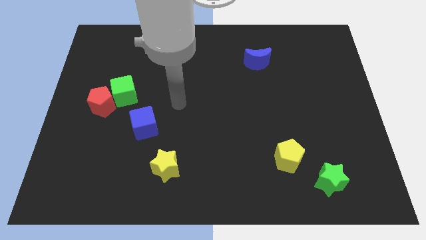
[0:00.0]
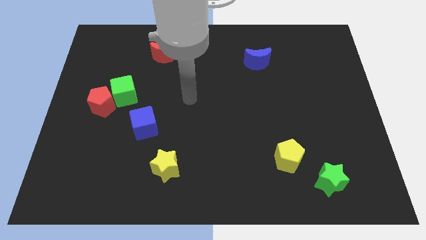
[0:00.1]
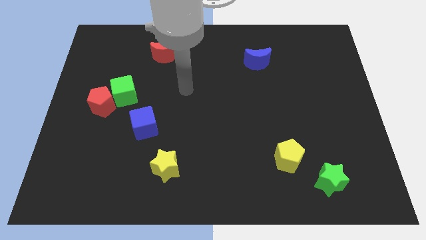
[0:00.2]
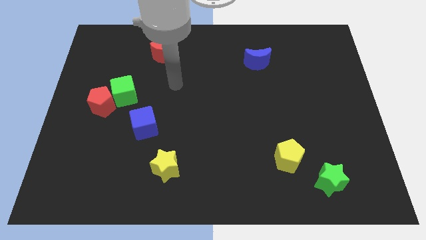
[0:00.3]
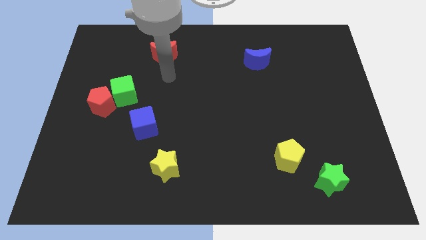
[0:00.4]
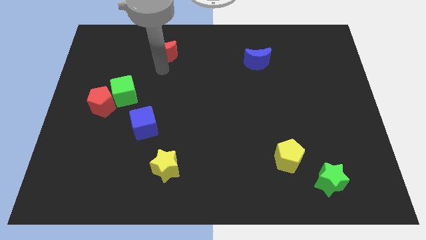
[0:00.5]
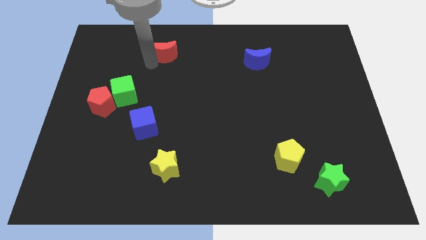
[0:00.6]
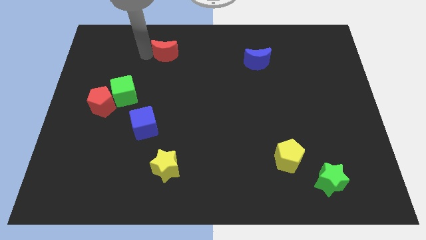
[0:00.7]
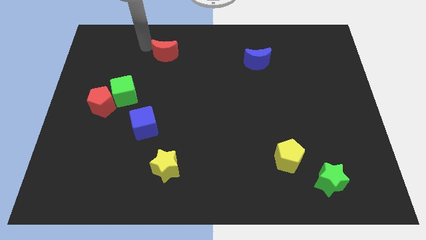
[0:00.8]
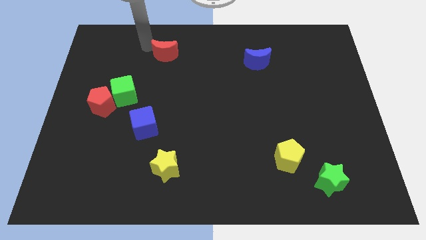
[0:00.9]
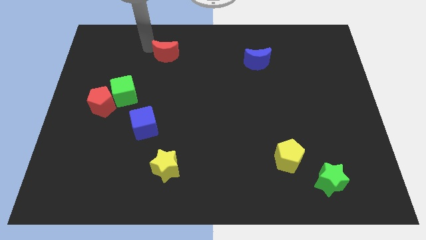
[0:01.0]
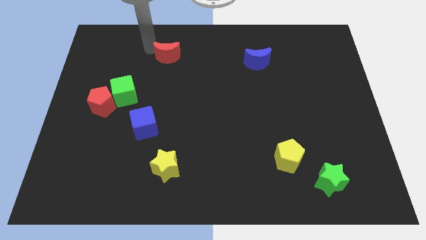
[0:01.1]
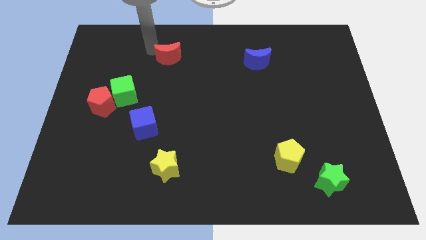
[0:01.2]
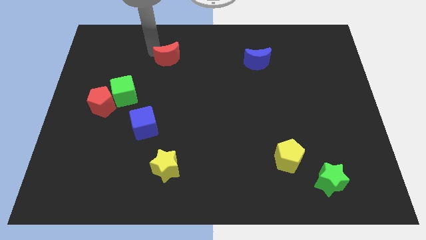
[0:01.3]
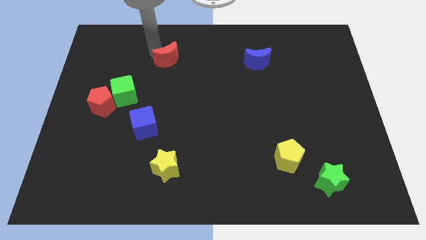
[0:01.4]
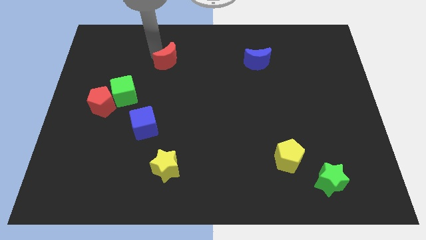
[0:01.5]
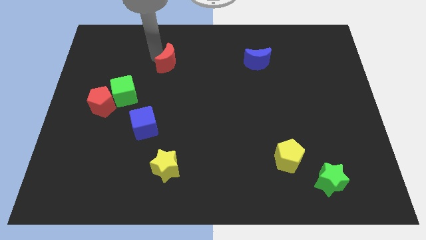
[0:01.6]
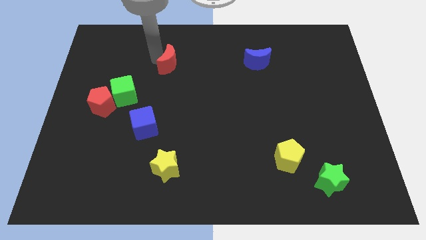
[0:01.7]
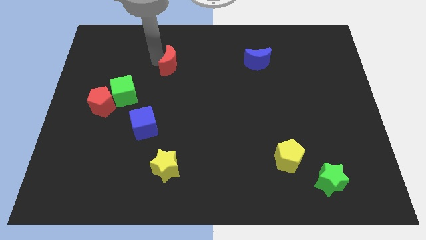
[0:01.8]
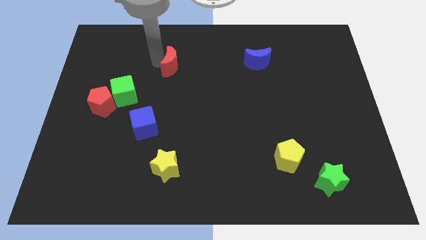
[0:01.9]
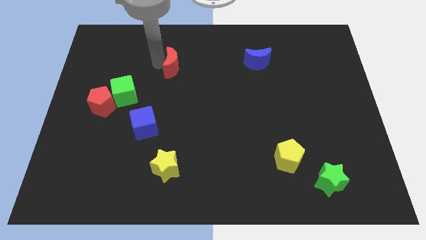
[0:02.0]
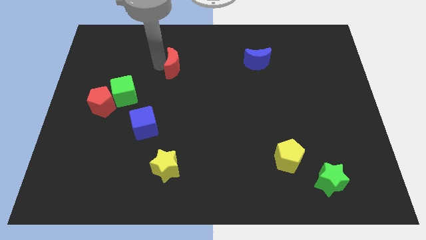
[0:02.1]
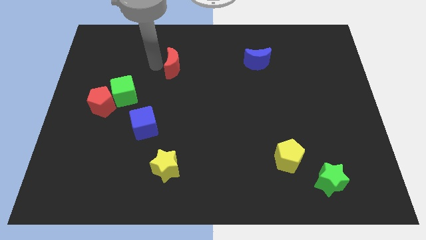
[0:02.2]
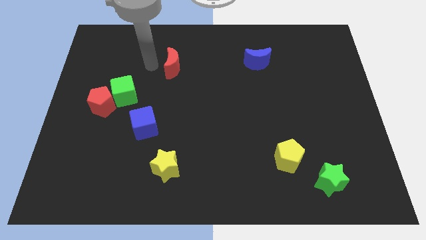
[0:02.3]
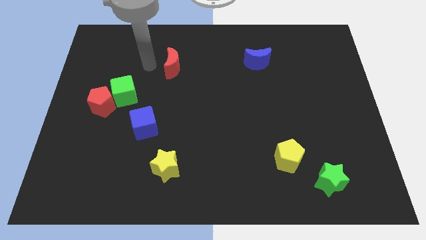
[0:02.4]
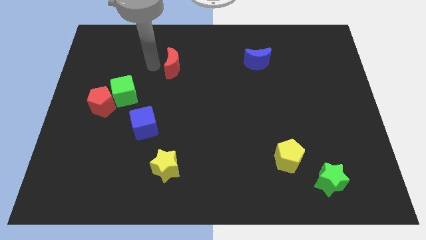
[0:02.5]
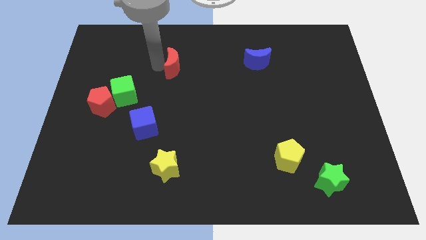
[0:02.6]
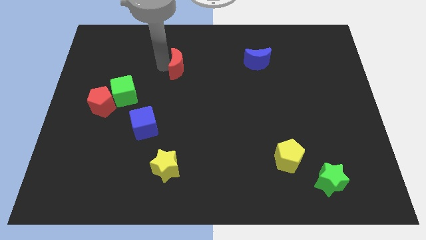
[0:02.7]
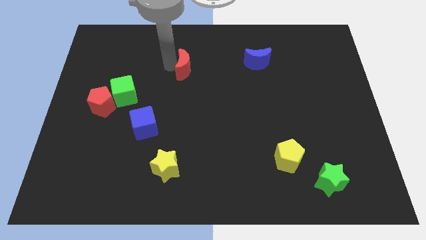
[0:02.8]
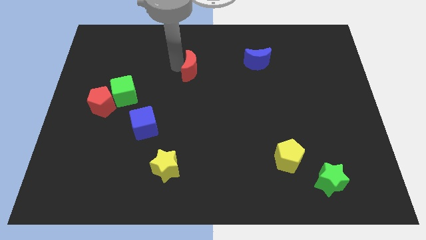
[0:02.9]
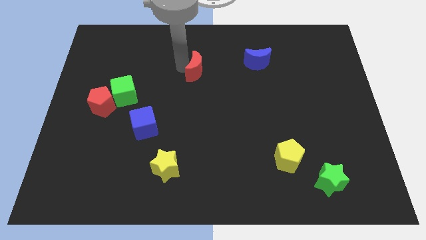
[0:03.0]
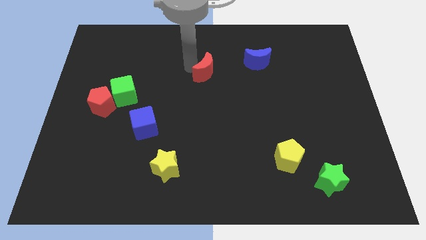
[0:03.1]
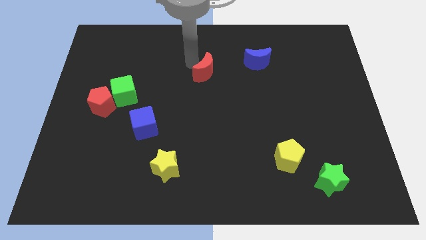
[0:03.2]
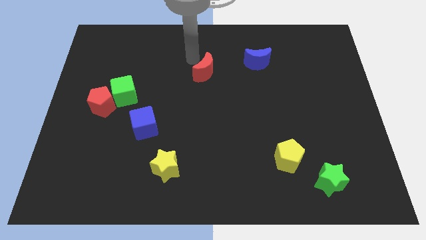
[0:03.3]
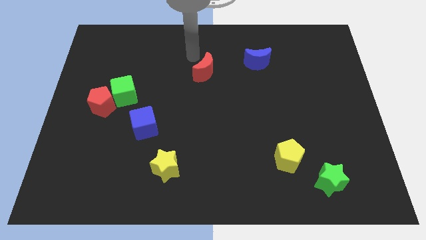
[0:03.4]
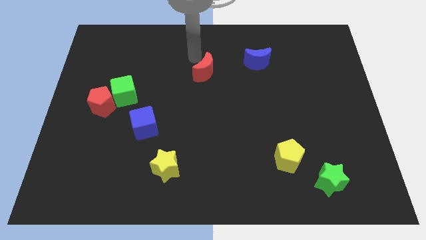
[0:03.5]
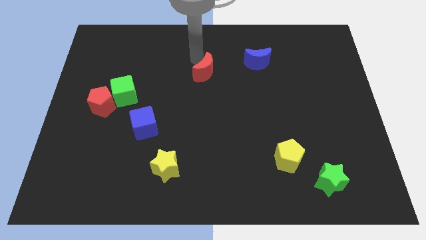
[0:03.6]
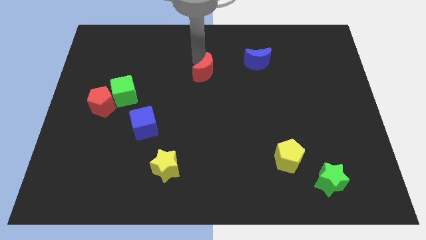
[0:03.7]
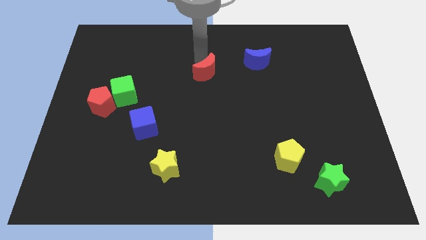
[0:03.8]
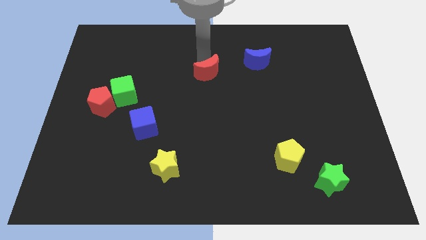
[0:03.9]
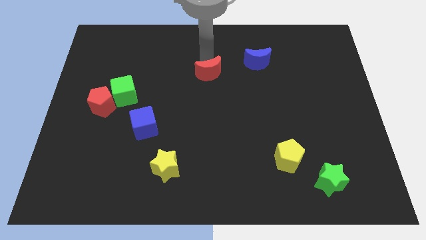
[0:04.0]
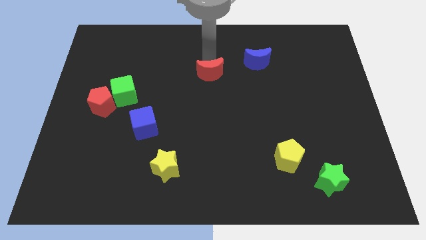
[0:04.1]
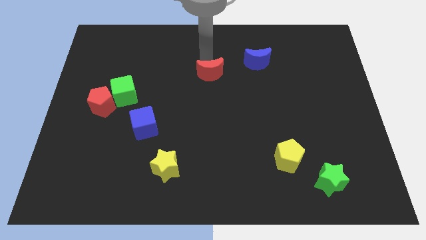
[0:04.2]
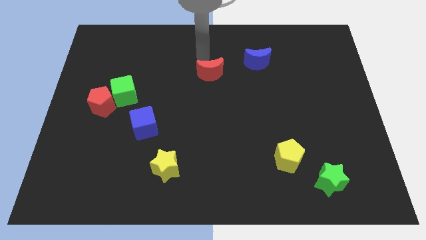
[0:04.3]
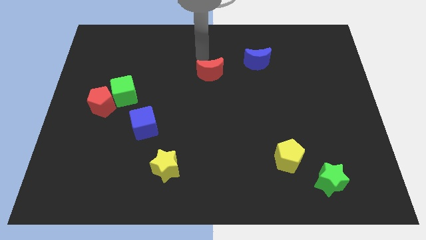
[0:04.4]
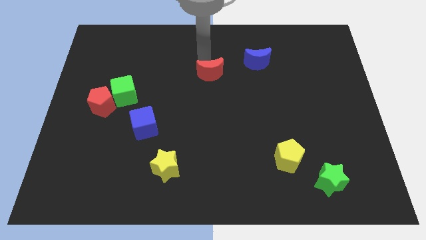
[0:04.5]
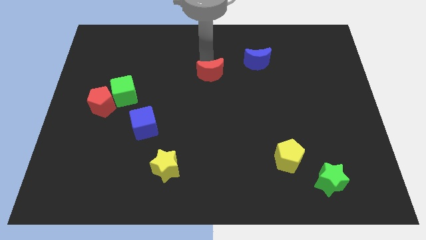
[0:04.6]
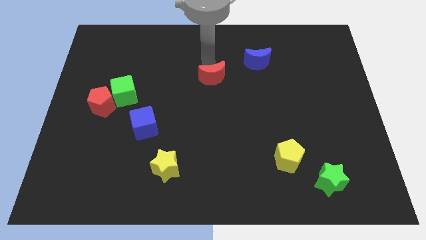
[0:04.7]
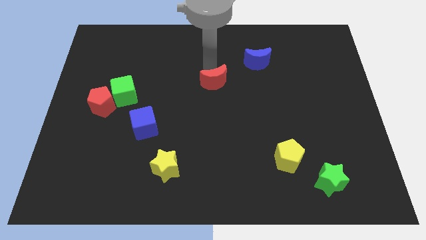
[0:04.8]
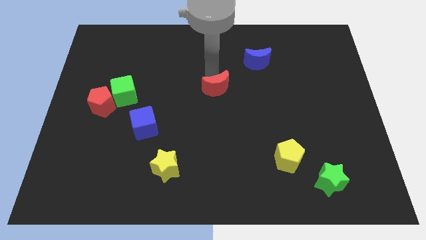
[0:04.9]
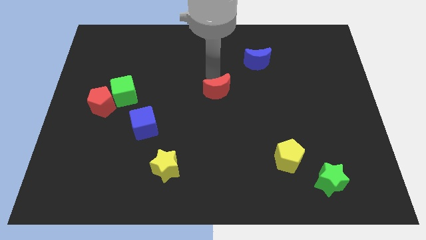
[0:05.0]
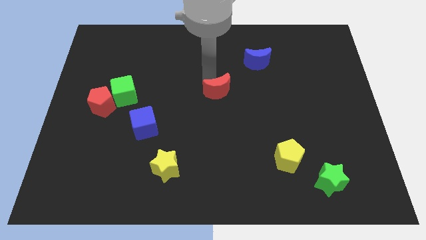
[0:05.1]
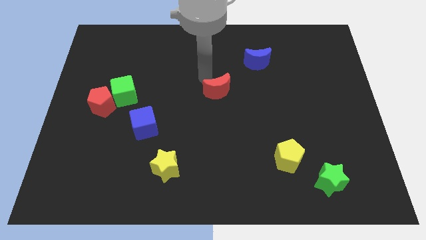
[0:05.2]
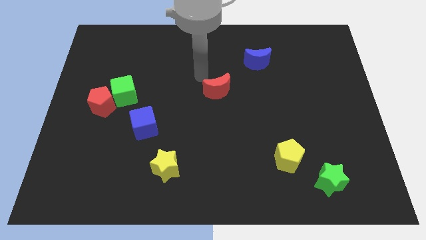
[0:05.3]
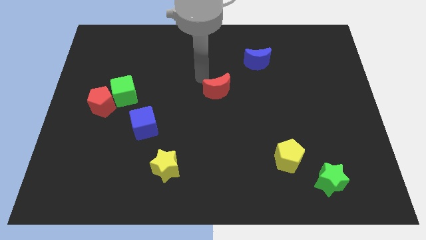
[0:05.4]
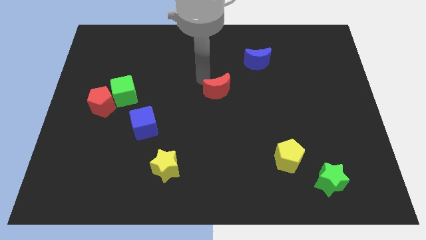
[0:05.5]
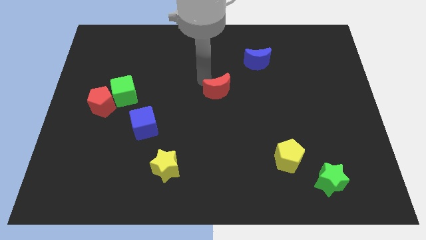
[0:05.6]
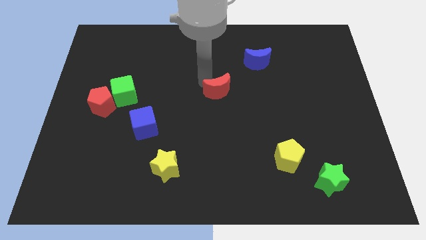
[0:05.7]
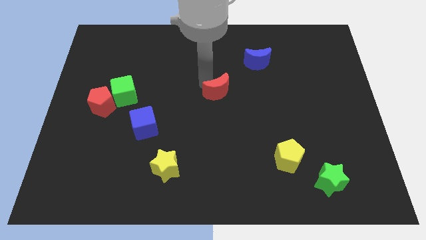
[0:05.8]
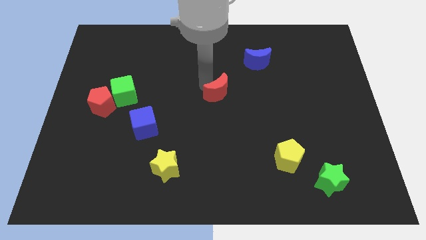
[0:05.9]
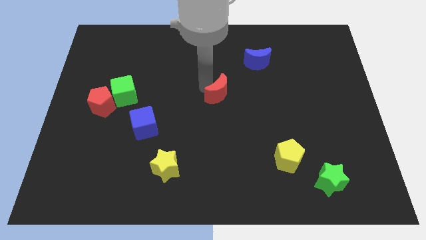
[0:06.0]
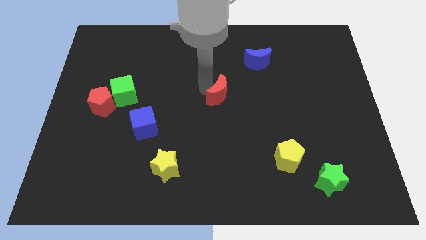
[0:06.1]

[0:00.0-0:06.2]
slide the red moon downwards and to the right diagonally

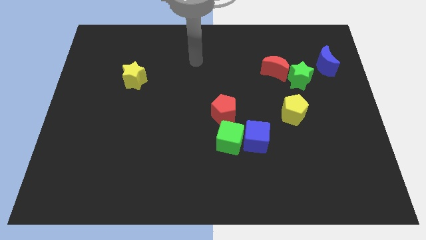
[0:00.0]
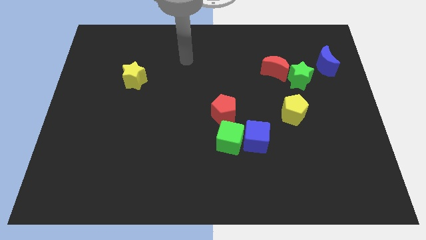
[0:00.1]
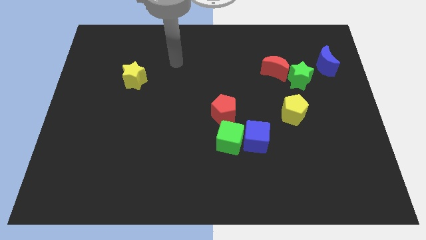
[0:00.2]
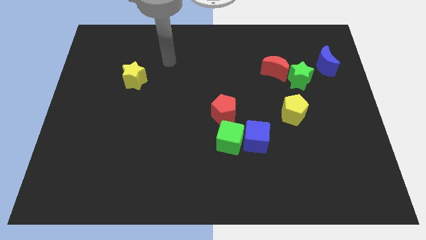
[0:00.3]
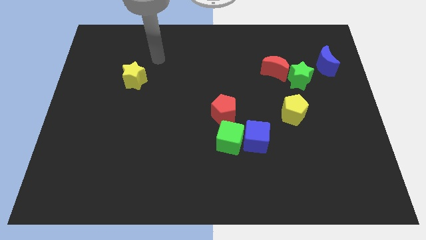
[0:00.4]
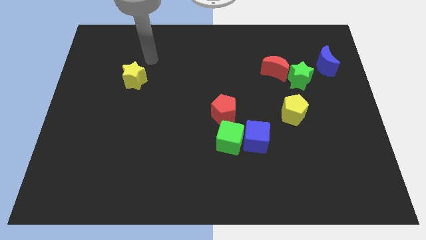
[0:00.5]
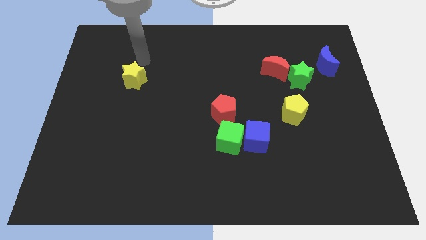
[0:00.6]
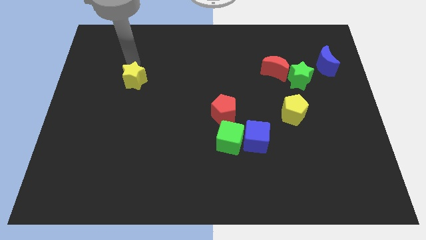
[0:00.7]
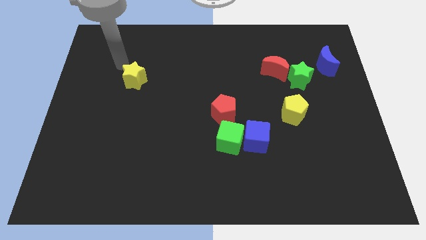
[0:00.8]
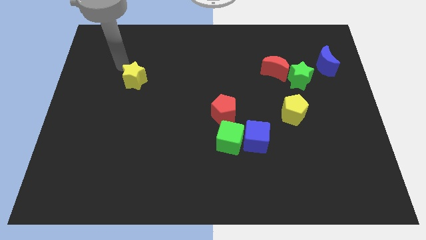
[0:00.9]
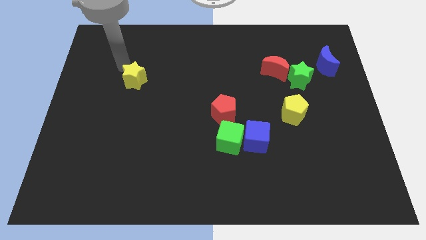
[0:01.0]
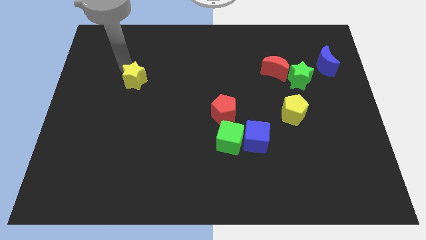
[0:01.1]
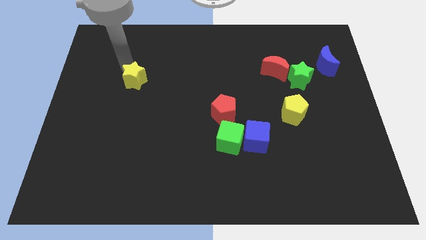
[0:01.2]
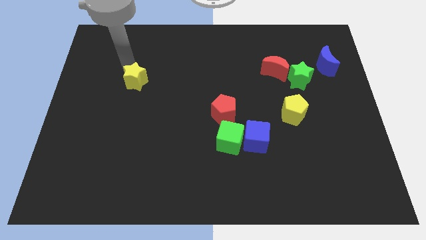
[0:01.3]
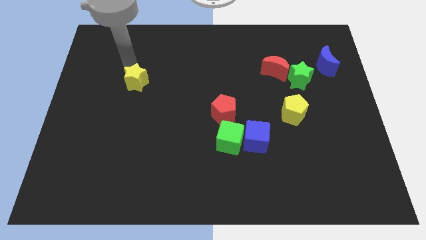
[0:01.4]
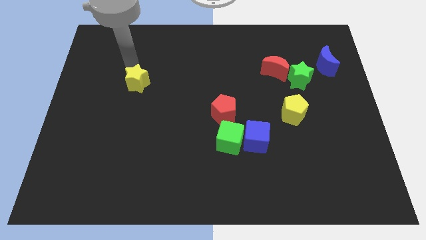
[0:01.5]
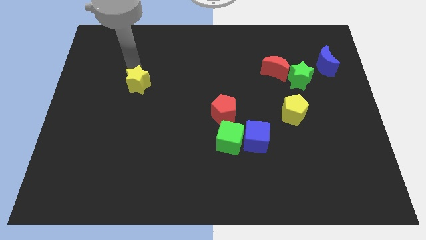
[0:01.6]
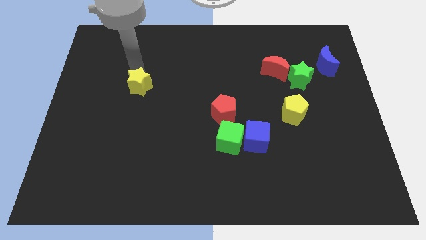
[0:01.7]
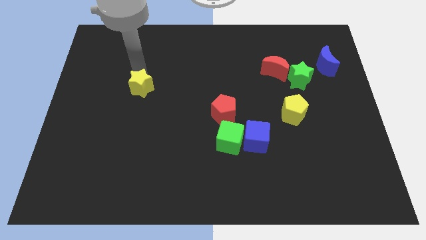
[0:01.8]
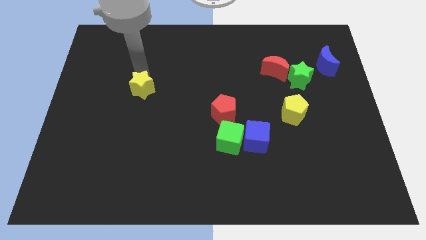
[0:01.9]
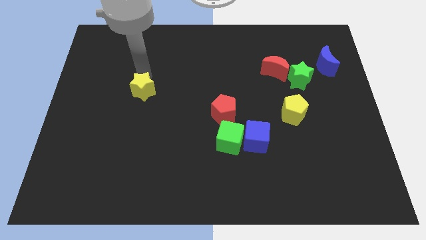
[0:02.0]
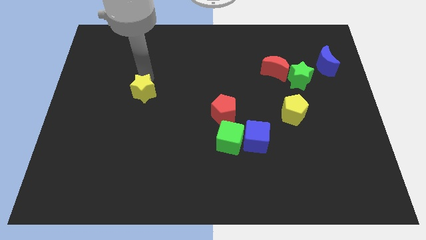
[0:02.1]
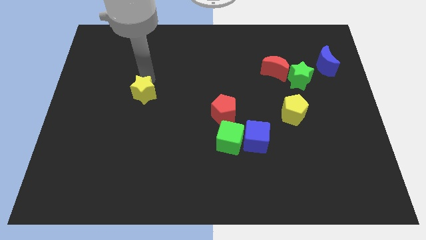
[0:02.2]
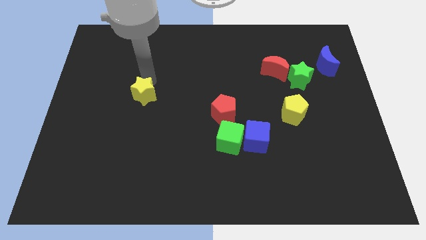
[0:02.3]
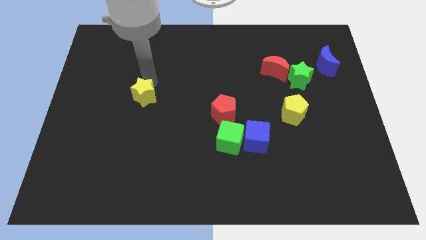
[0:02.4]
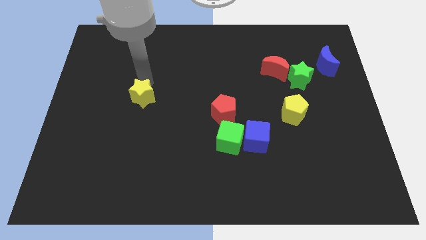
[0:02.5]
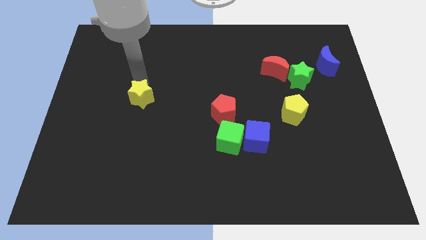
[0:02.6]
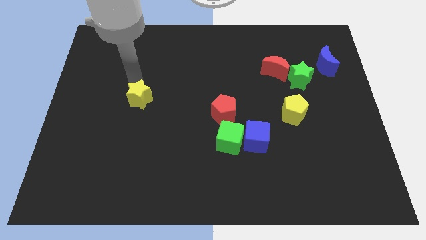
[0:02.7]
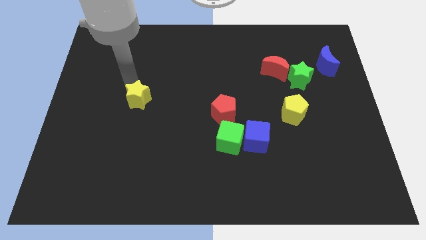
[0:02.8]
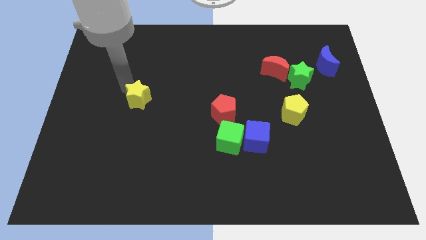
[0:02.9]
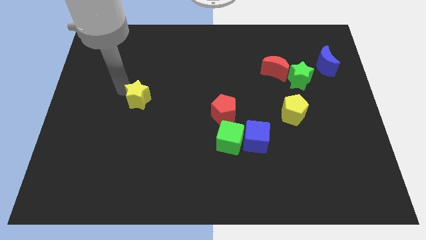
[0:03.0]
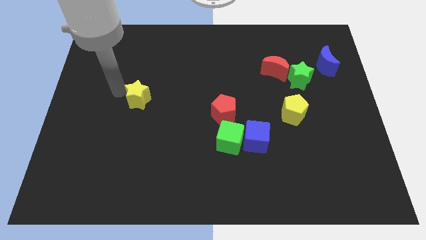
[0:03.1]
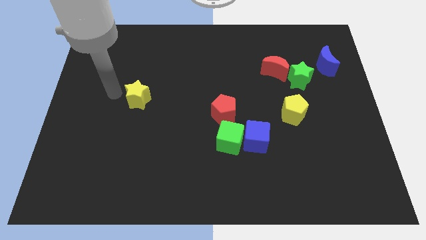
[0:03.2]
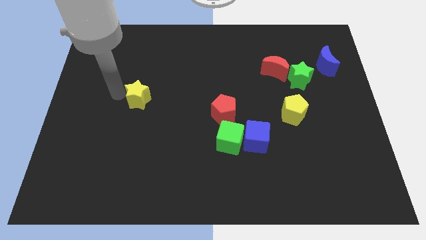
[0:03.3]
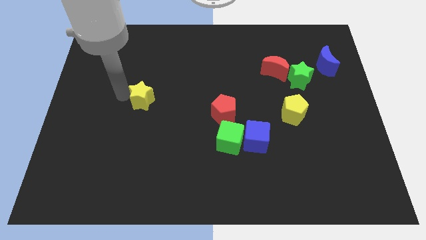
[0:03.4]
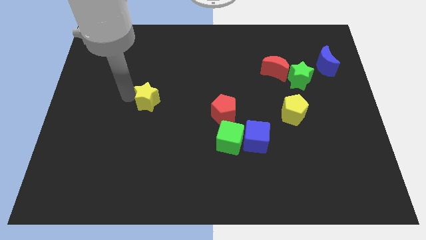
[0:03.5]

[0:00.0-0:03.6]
slightly move the yellow star down and to the right
